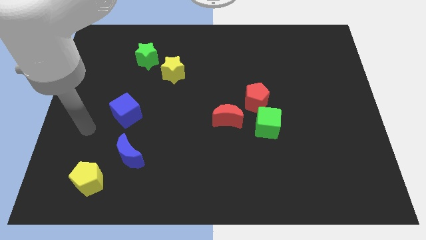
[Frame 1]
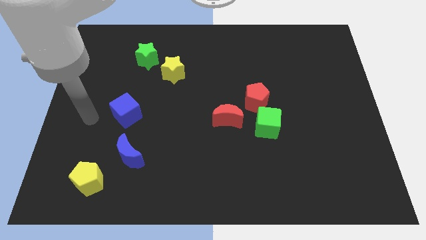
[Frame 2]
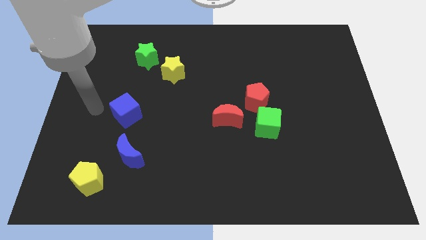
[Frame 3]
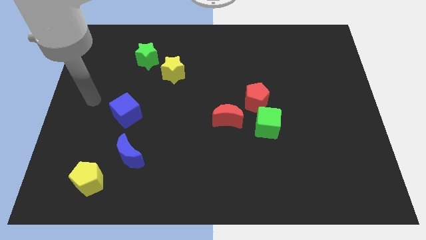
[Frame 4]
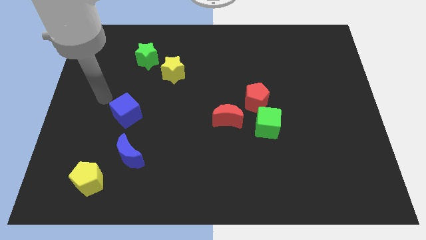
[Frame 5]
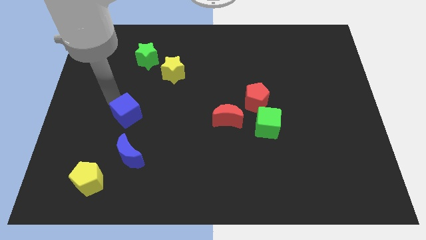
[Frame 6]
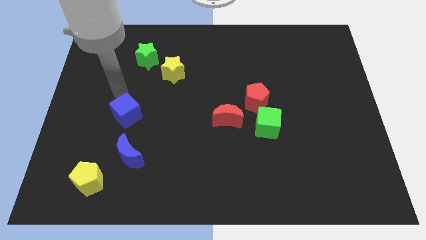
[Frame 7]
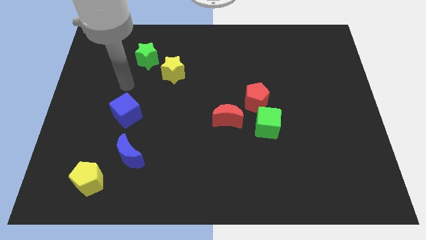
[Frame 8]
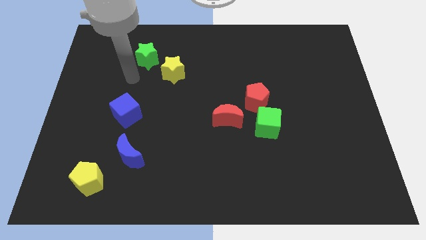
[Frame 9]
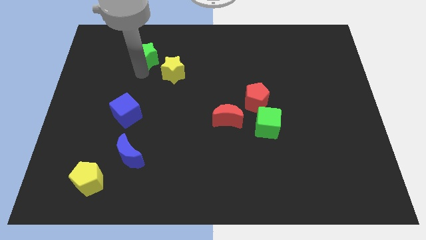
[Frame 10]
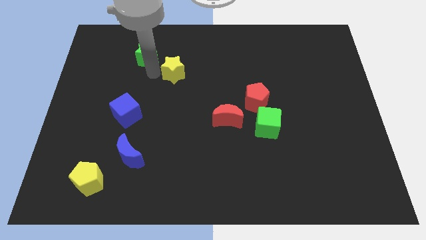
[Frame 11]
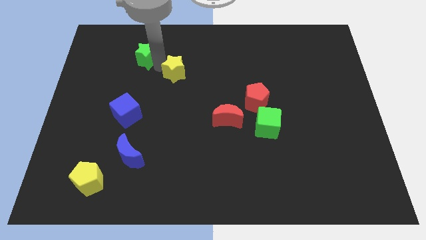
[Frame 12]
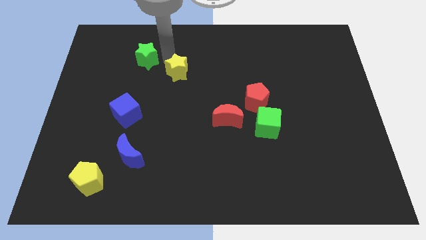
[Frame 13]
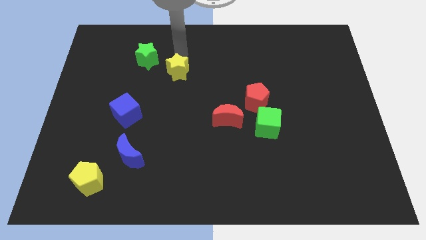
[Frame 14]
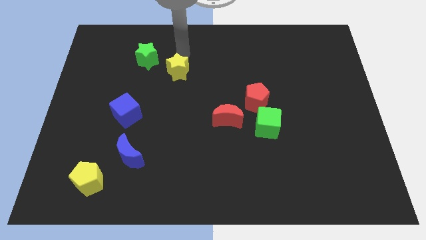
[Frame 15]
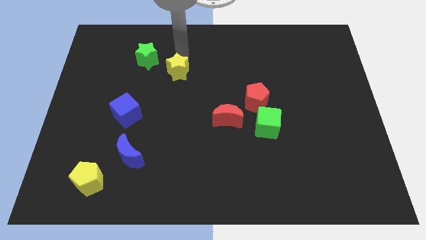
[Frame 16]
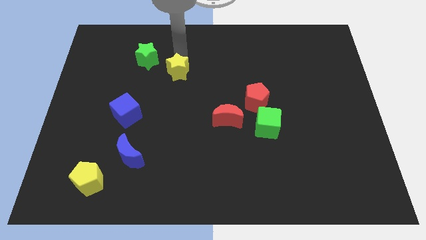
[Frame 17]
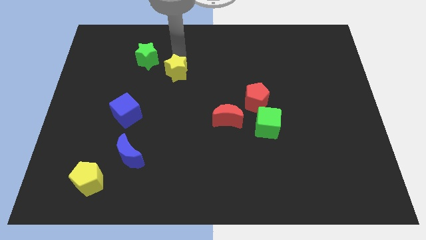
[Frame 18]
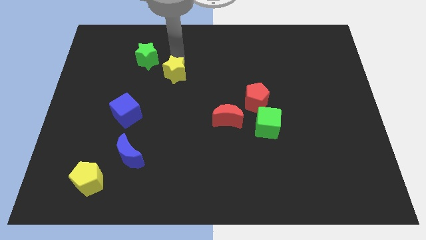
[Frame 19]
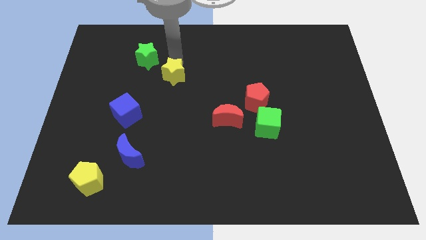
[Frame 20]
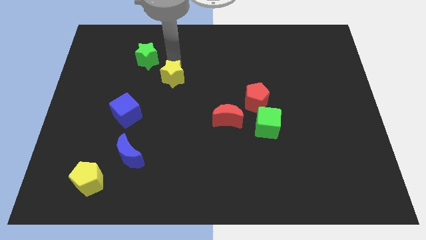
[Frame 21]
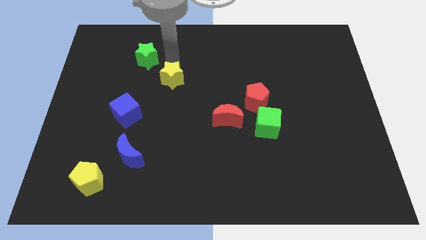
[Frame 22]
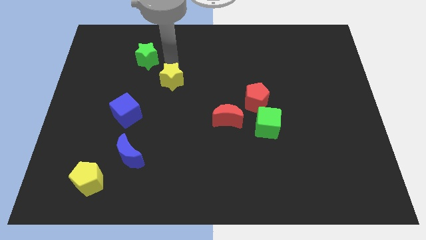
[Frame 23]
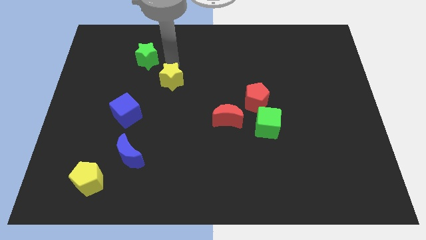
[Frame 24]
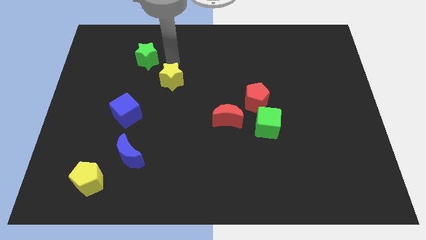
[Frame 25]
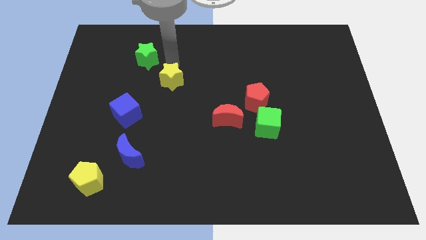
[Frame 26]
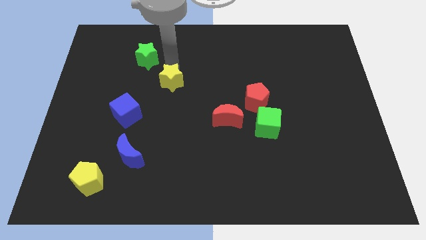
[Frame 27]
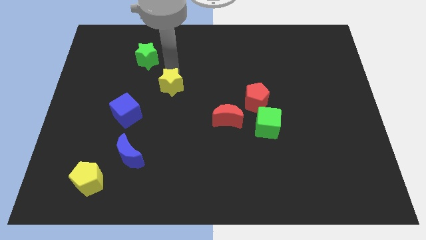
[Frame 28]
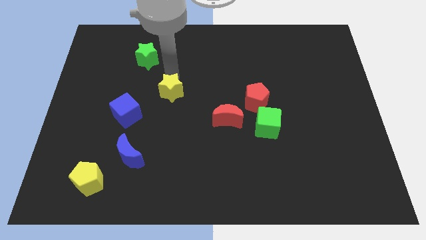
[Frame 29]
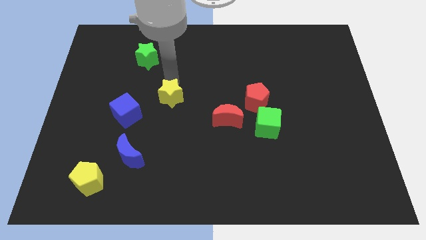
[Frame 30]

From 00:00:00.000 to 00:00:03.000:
move the yellow star slightly down

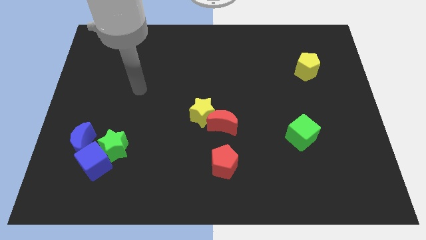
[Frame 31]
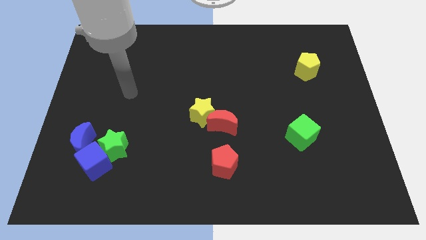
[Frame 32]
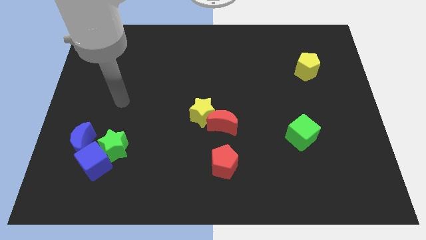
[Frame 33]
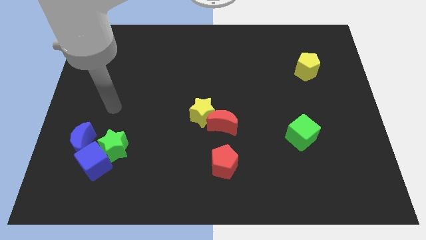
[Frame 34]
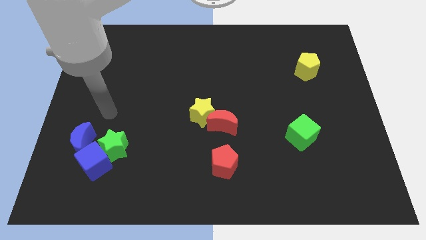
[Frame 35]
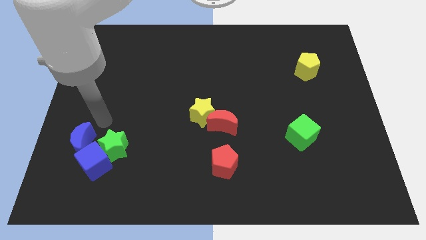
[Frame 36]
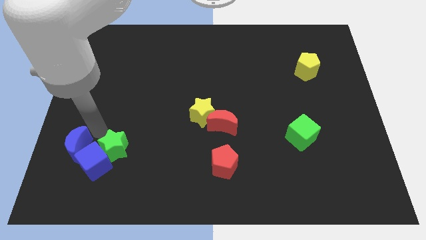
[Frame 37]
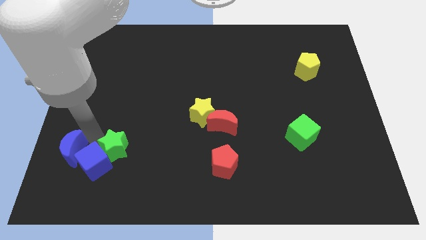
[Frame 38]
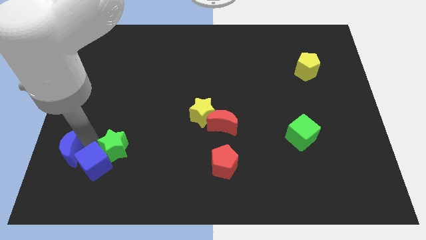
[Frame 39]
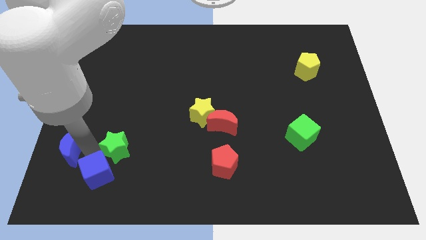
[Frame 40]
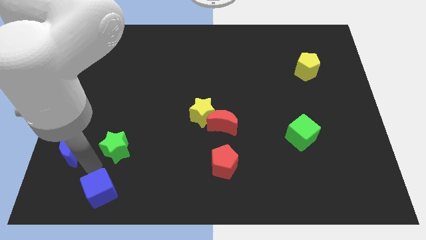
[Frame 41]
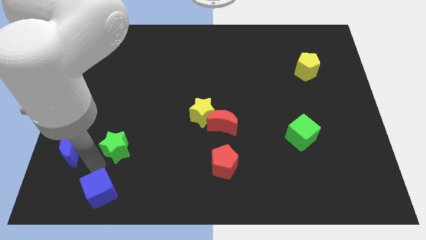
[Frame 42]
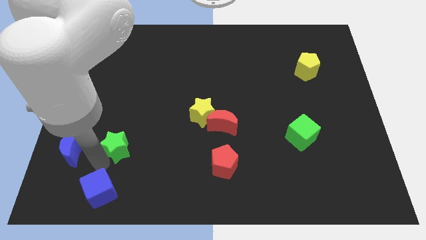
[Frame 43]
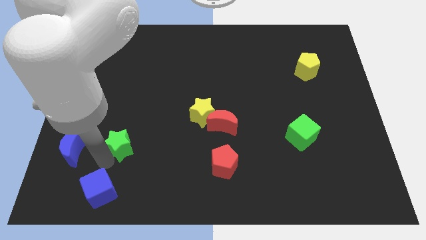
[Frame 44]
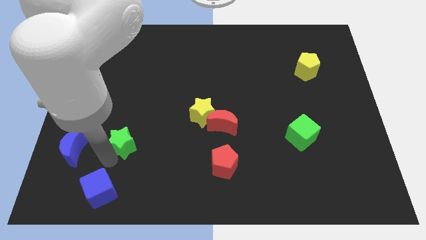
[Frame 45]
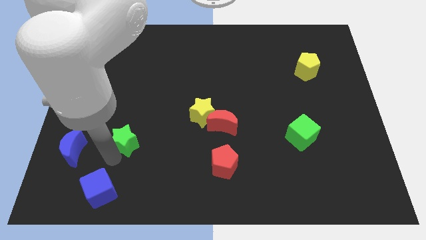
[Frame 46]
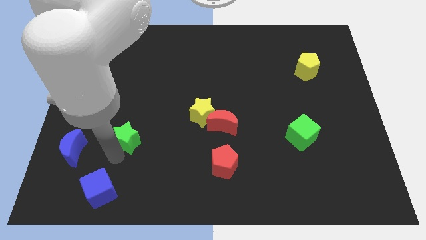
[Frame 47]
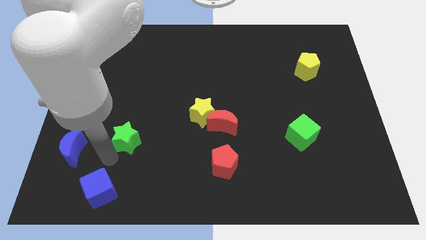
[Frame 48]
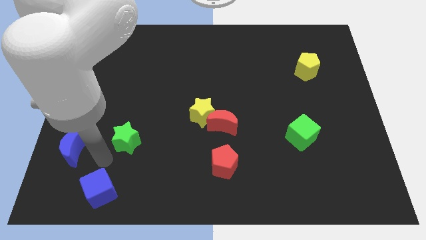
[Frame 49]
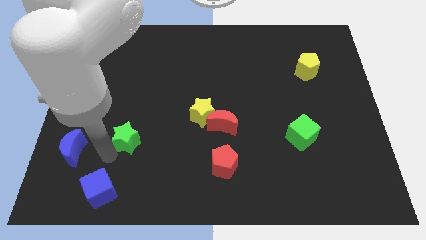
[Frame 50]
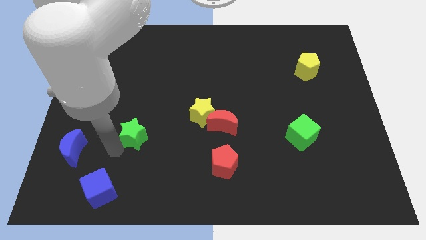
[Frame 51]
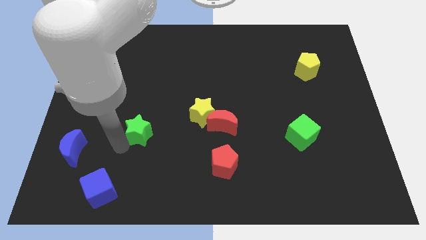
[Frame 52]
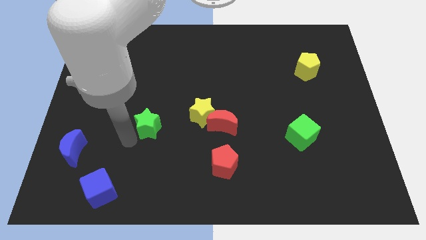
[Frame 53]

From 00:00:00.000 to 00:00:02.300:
move the green star a little bit diagonally upwards and right

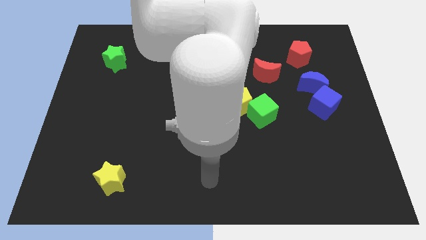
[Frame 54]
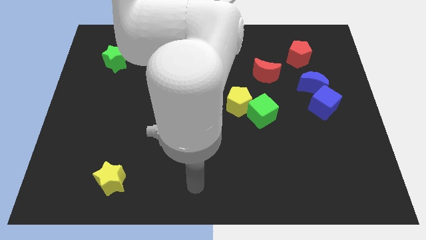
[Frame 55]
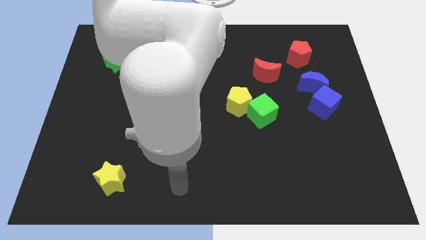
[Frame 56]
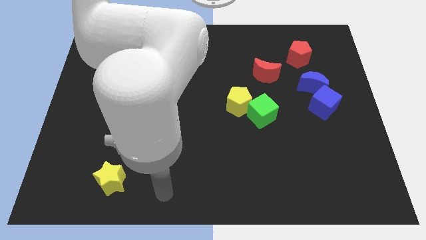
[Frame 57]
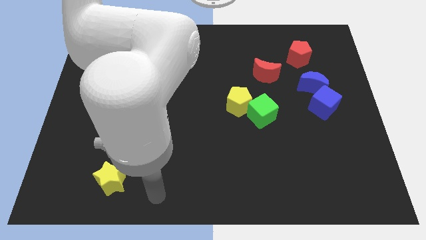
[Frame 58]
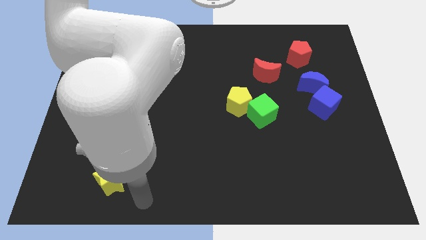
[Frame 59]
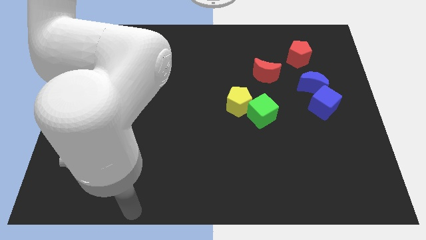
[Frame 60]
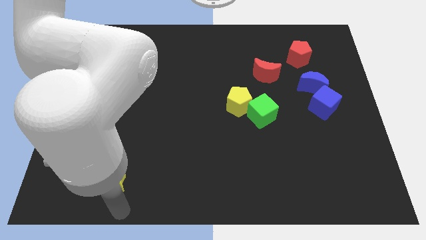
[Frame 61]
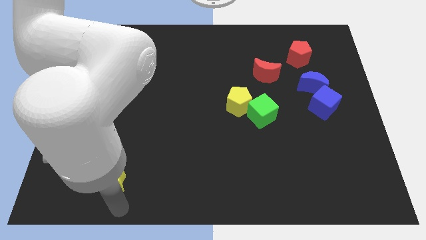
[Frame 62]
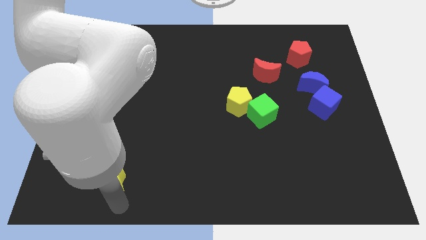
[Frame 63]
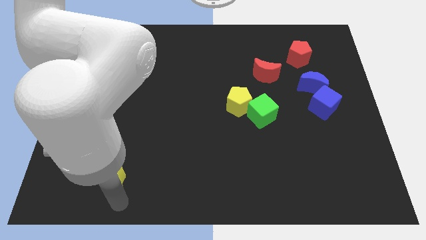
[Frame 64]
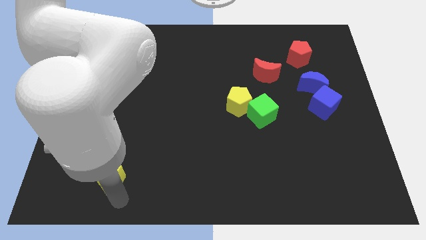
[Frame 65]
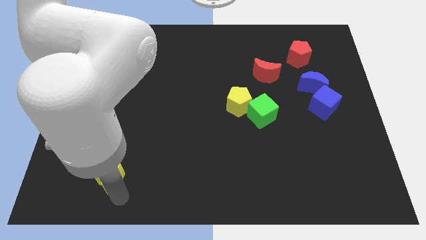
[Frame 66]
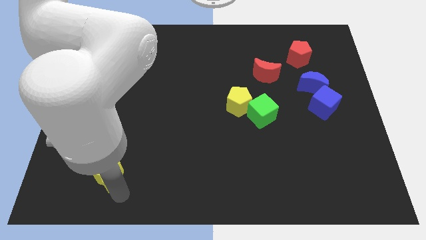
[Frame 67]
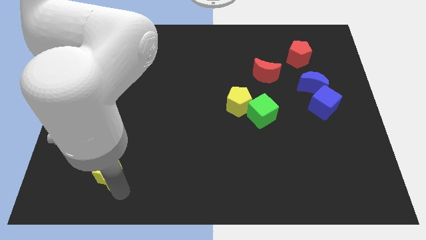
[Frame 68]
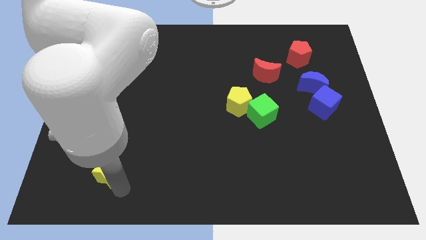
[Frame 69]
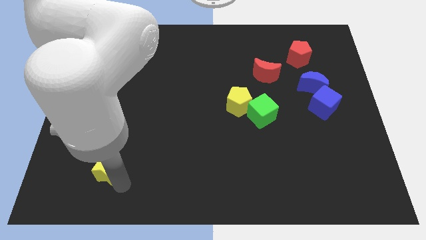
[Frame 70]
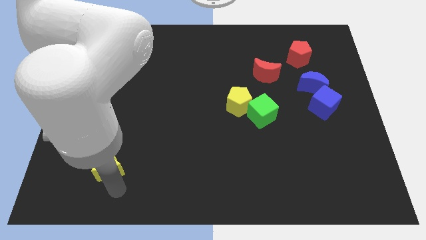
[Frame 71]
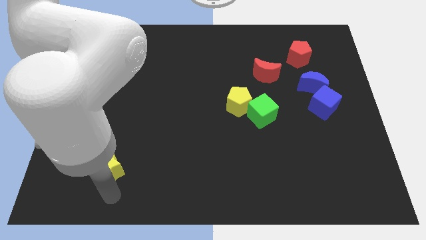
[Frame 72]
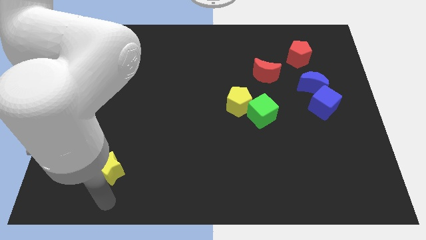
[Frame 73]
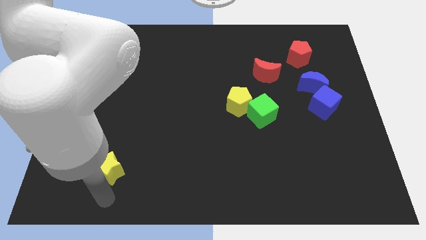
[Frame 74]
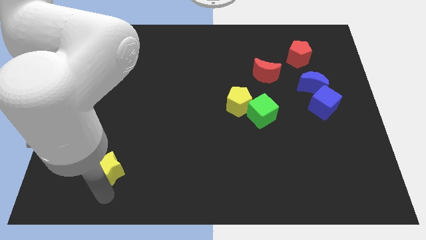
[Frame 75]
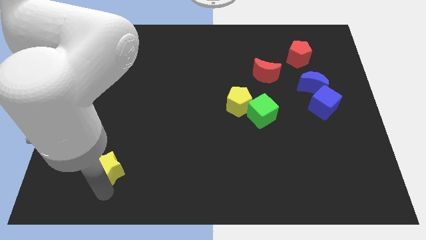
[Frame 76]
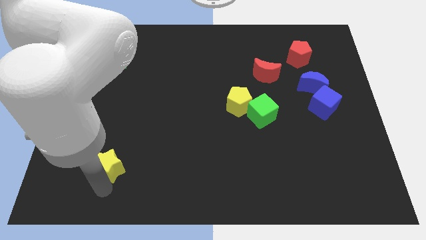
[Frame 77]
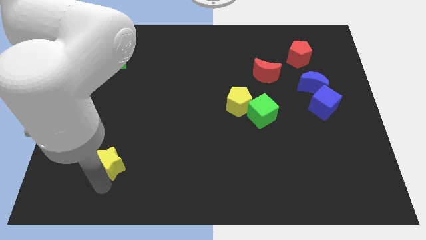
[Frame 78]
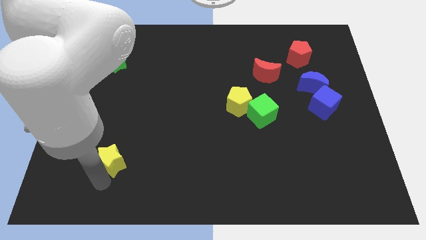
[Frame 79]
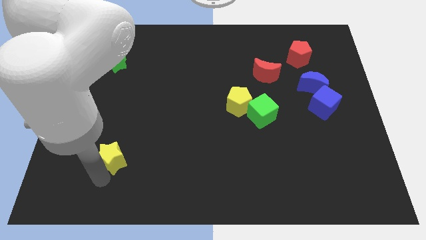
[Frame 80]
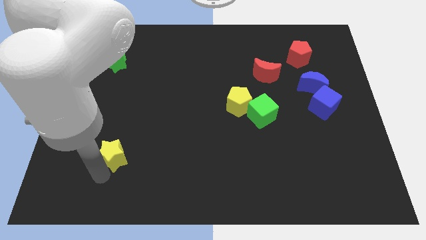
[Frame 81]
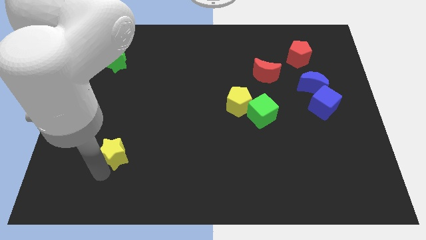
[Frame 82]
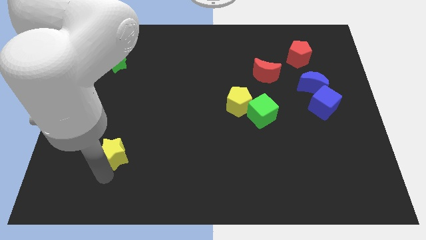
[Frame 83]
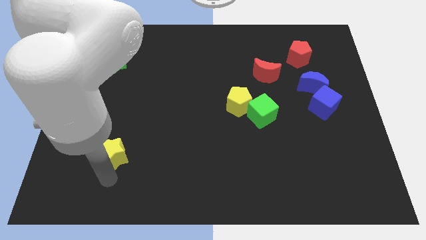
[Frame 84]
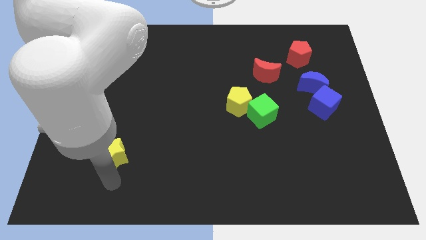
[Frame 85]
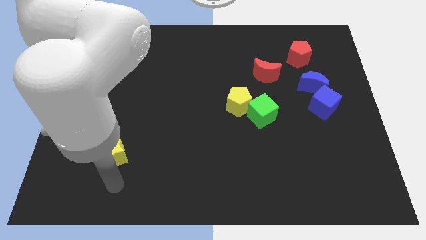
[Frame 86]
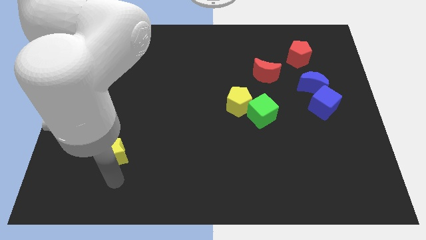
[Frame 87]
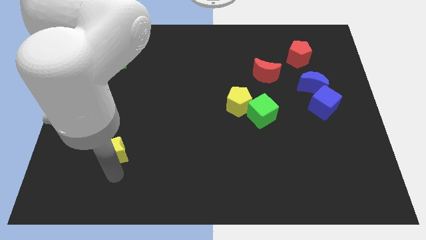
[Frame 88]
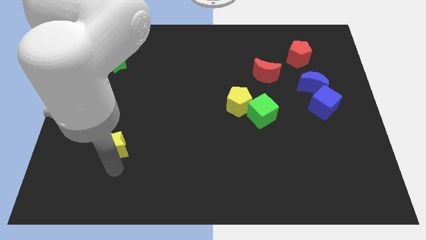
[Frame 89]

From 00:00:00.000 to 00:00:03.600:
slightly slide the yellow star upwards
